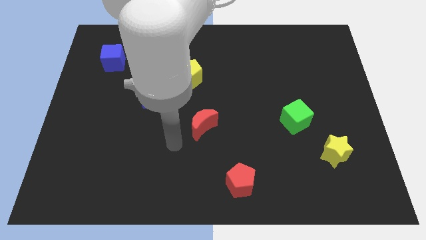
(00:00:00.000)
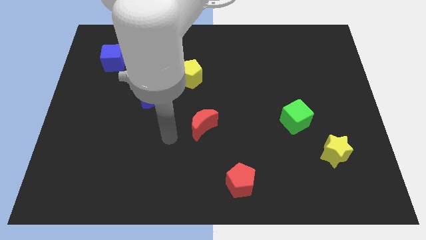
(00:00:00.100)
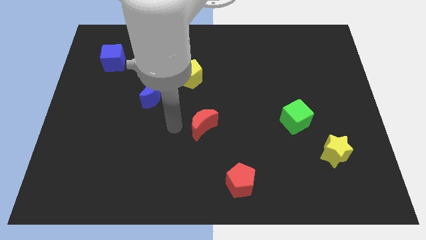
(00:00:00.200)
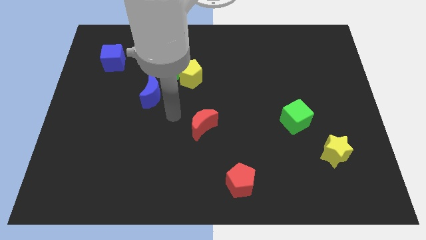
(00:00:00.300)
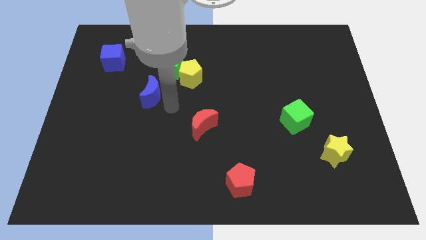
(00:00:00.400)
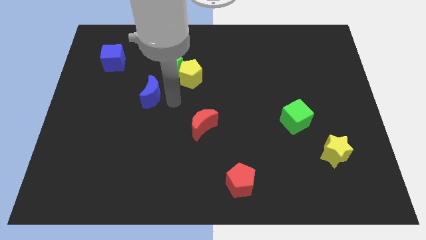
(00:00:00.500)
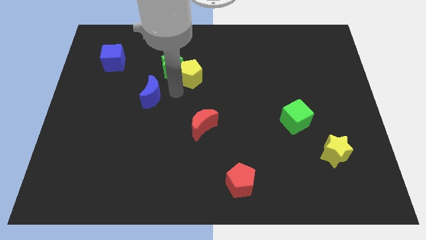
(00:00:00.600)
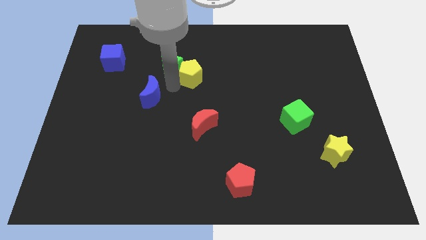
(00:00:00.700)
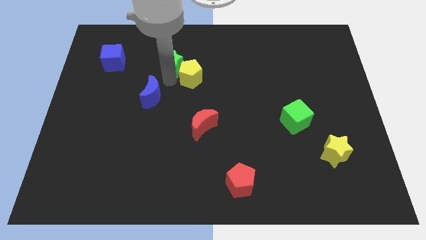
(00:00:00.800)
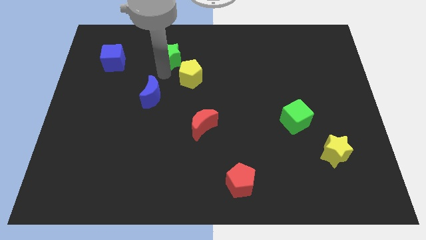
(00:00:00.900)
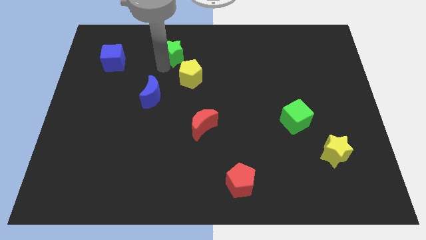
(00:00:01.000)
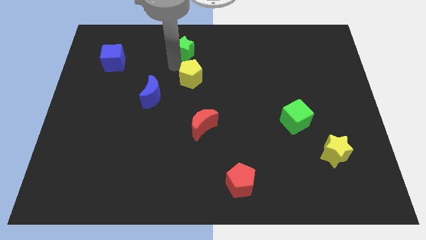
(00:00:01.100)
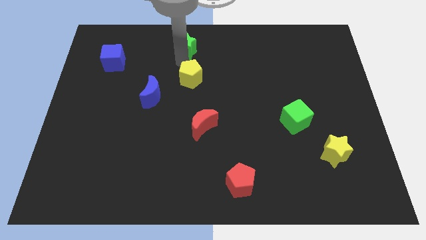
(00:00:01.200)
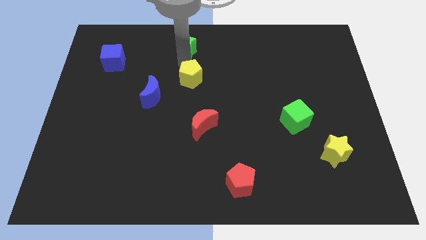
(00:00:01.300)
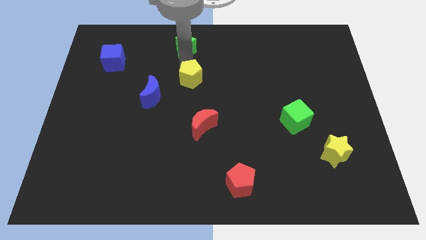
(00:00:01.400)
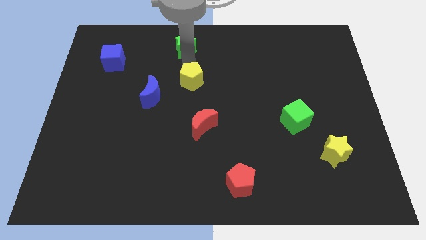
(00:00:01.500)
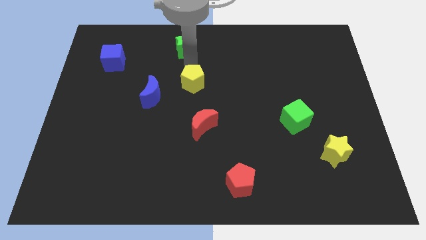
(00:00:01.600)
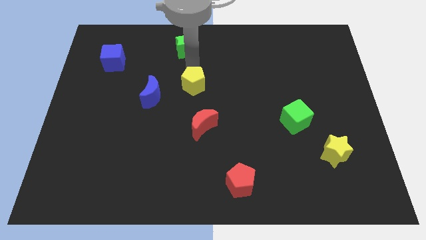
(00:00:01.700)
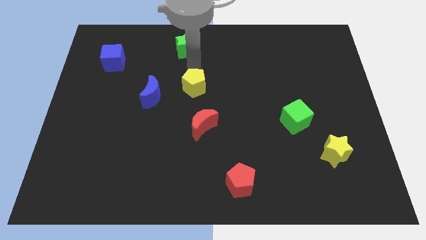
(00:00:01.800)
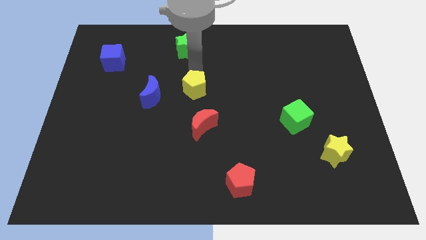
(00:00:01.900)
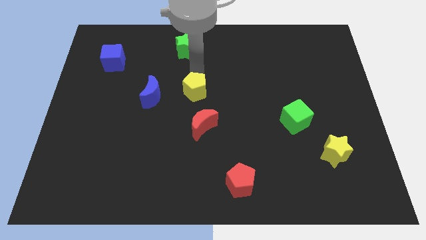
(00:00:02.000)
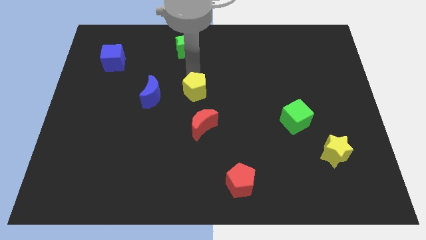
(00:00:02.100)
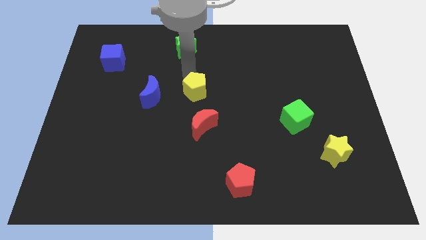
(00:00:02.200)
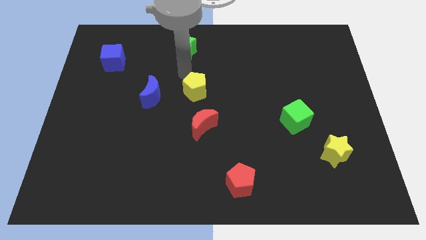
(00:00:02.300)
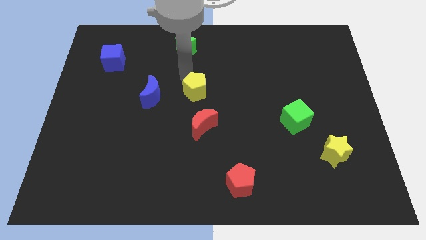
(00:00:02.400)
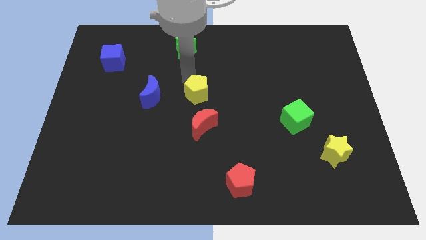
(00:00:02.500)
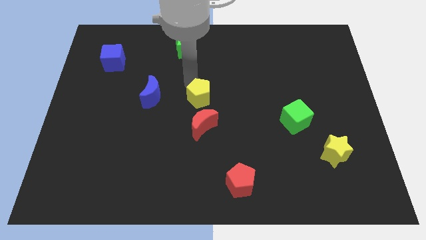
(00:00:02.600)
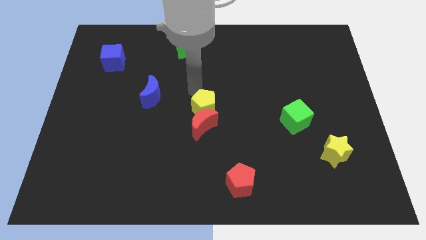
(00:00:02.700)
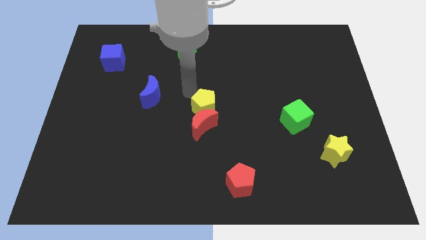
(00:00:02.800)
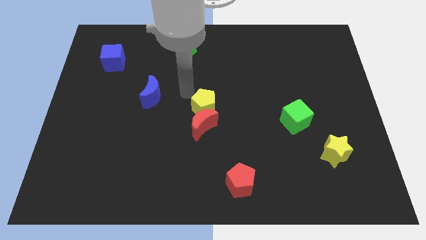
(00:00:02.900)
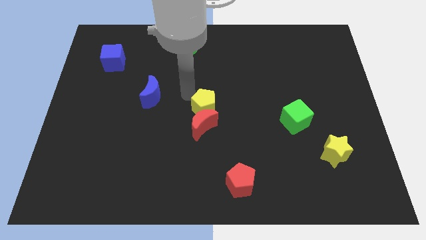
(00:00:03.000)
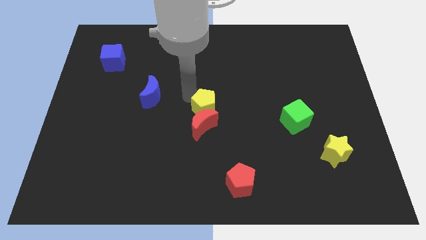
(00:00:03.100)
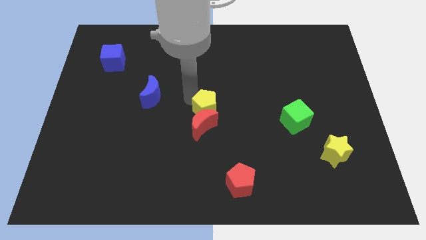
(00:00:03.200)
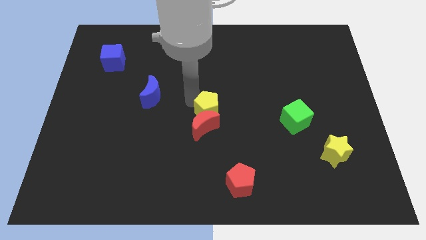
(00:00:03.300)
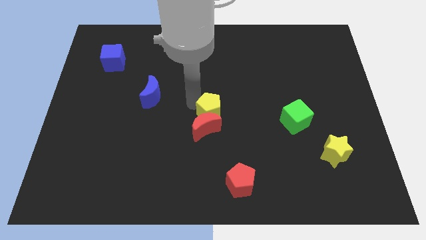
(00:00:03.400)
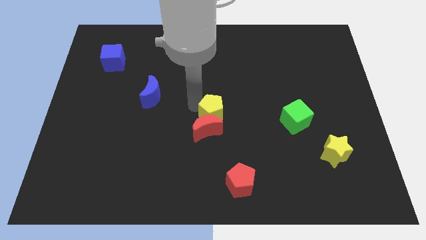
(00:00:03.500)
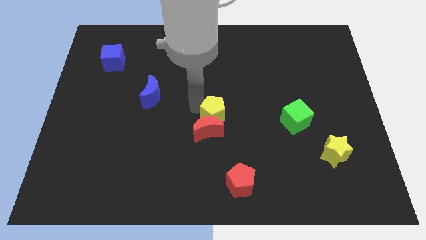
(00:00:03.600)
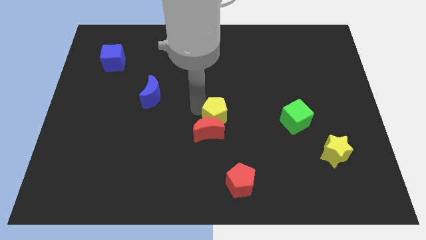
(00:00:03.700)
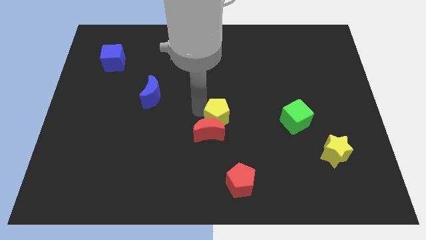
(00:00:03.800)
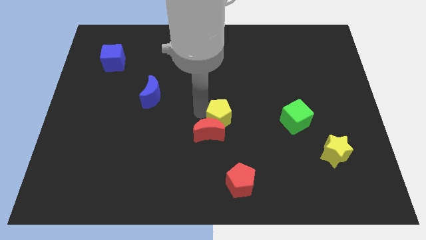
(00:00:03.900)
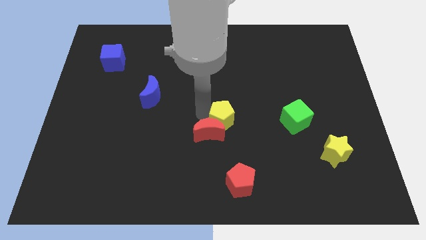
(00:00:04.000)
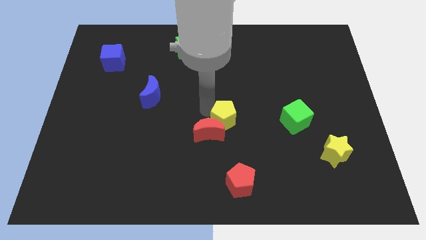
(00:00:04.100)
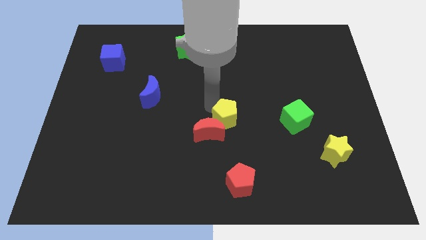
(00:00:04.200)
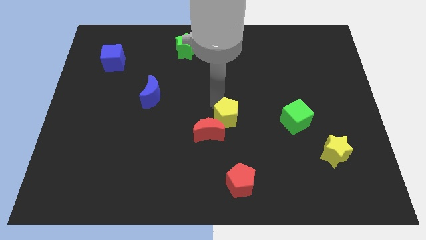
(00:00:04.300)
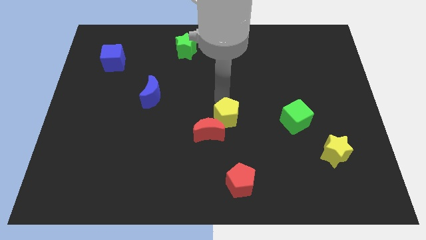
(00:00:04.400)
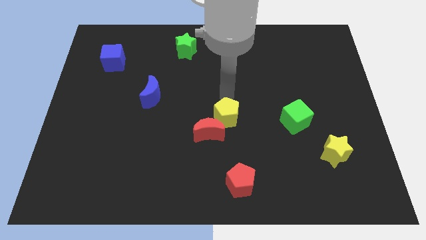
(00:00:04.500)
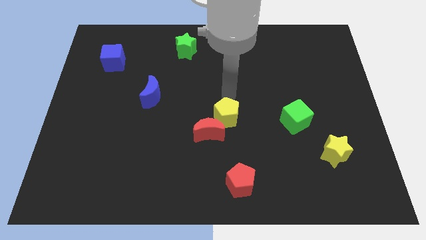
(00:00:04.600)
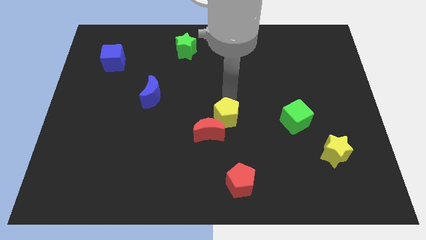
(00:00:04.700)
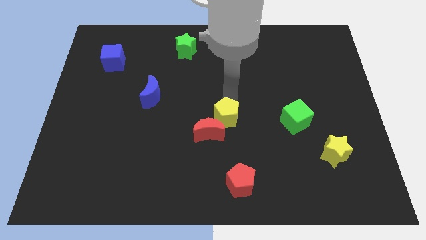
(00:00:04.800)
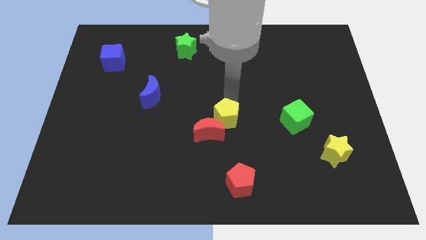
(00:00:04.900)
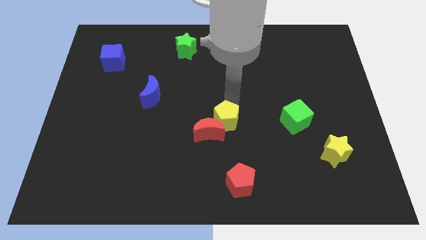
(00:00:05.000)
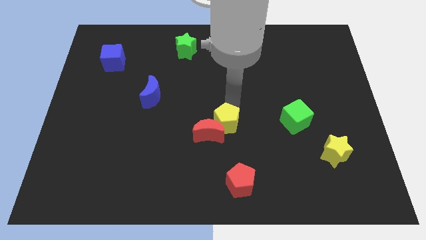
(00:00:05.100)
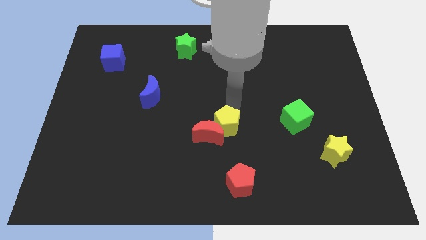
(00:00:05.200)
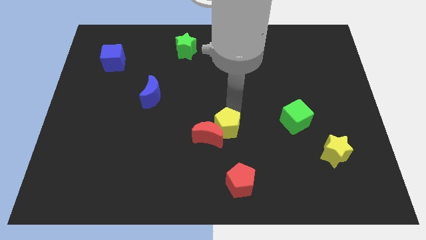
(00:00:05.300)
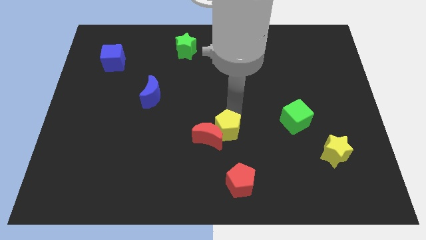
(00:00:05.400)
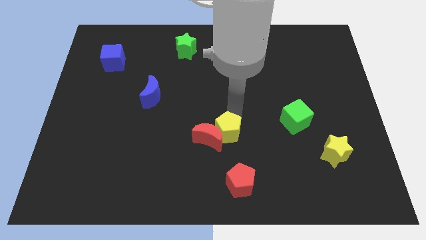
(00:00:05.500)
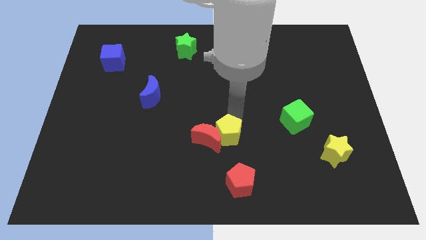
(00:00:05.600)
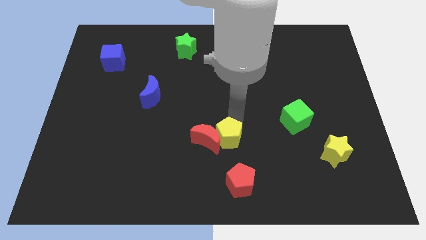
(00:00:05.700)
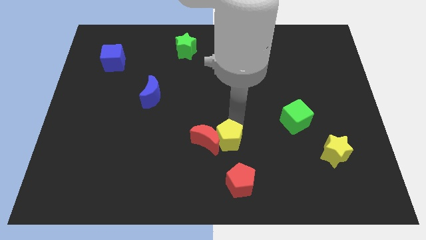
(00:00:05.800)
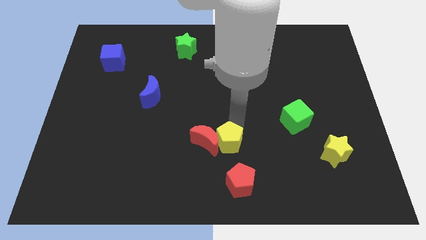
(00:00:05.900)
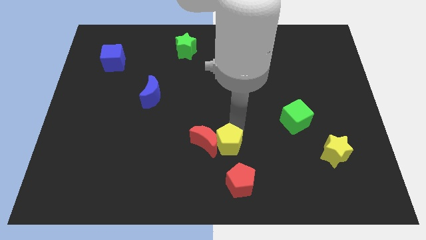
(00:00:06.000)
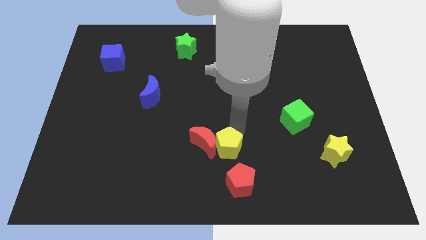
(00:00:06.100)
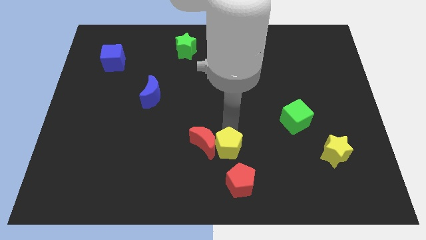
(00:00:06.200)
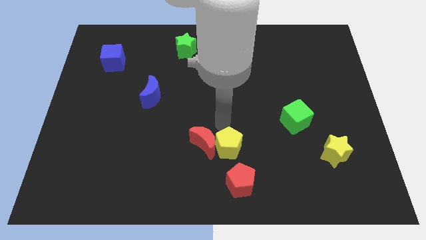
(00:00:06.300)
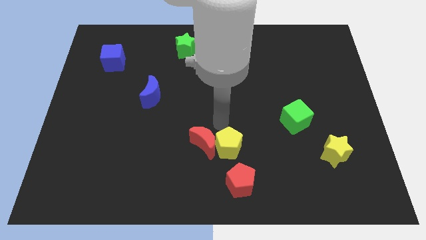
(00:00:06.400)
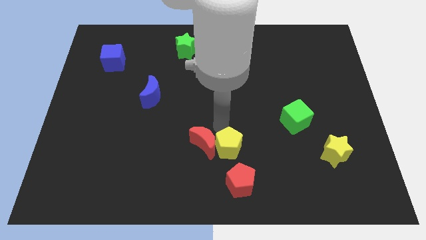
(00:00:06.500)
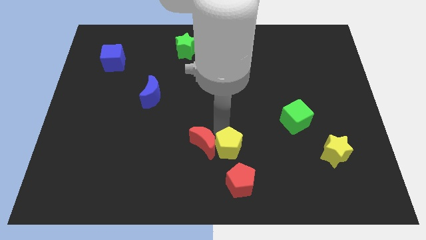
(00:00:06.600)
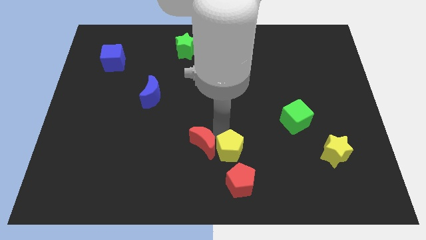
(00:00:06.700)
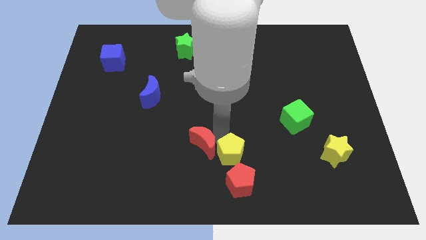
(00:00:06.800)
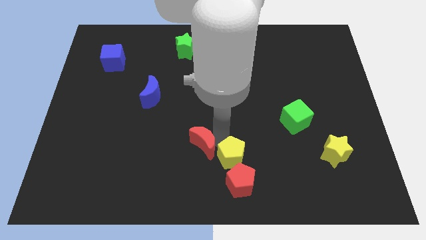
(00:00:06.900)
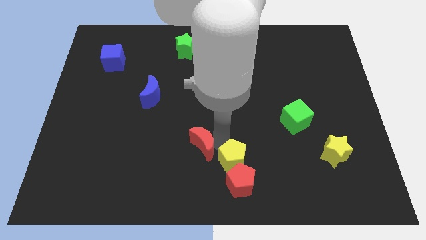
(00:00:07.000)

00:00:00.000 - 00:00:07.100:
put the yellow pentagon close to the red pentagon
